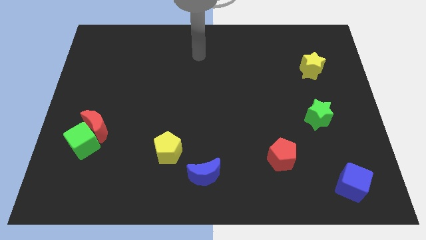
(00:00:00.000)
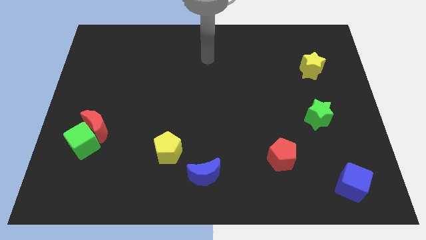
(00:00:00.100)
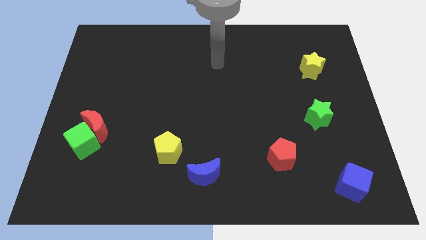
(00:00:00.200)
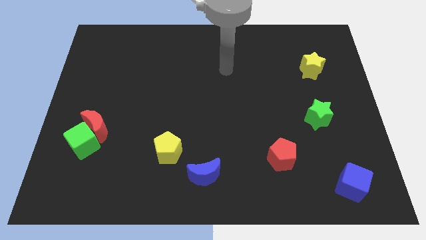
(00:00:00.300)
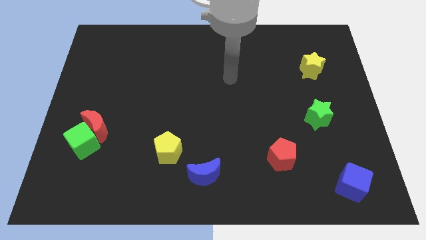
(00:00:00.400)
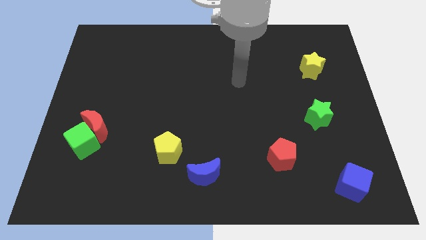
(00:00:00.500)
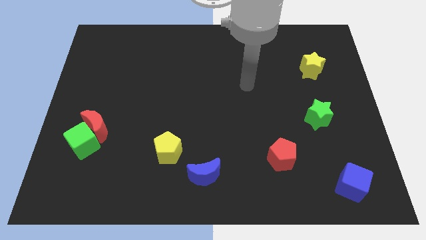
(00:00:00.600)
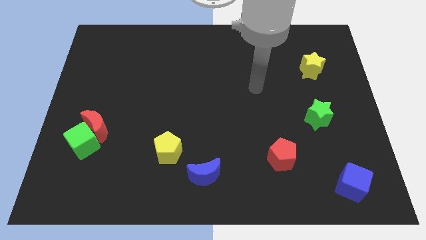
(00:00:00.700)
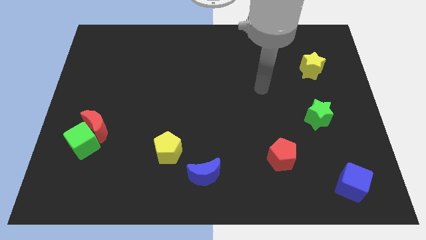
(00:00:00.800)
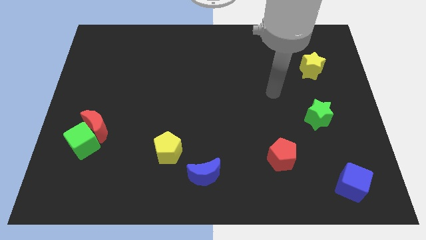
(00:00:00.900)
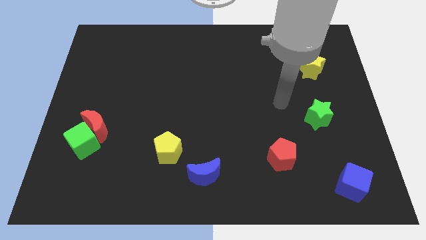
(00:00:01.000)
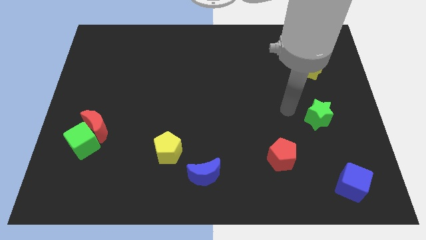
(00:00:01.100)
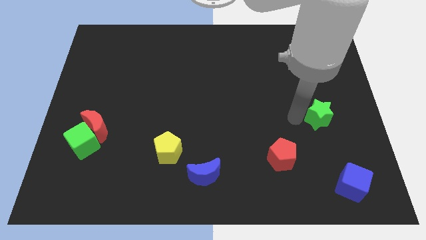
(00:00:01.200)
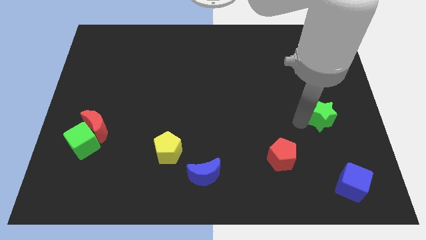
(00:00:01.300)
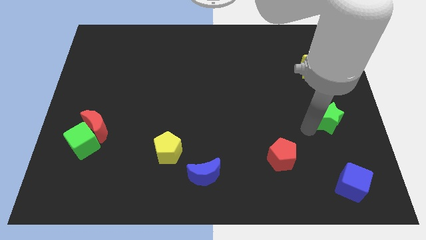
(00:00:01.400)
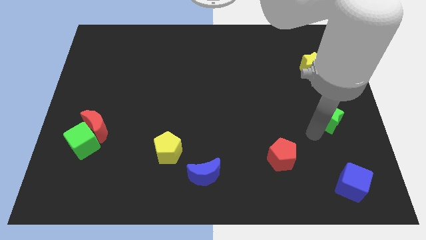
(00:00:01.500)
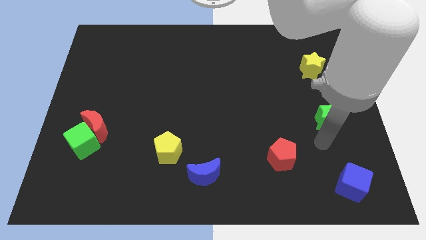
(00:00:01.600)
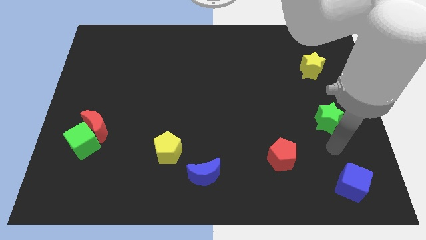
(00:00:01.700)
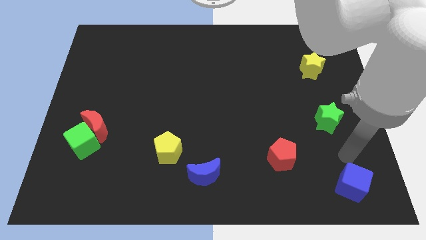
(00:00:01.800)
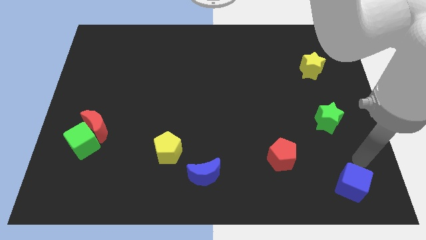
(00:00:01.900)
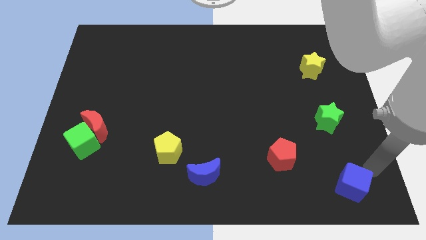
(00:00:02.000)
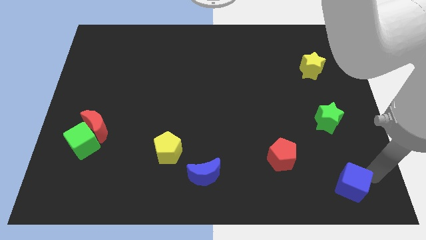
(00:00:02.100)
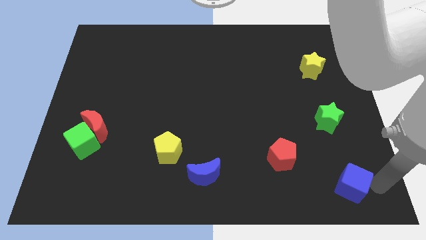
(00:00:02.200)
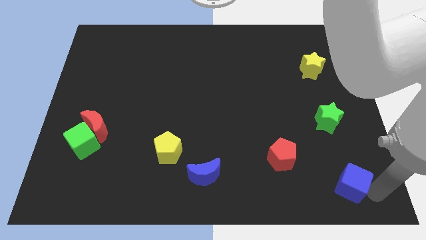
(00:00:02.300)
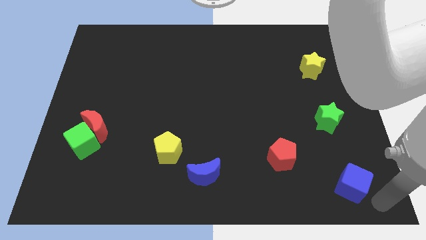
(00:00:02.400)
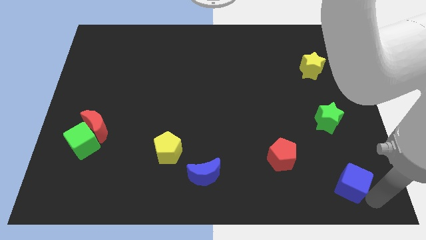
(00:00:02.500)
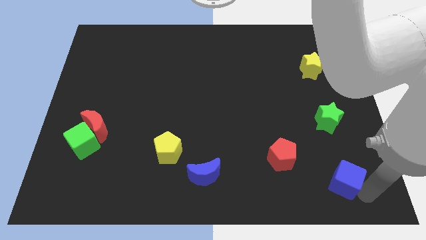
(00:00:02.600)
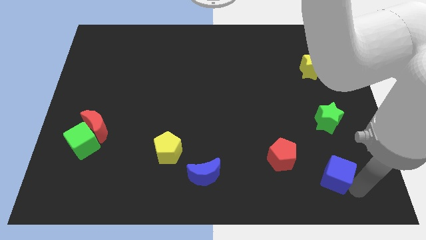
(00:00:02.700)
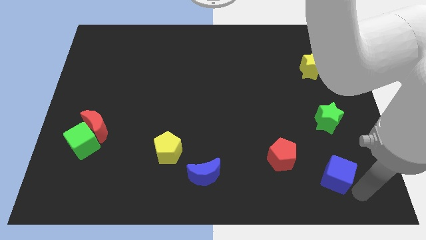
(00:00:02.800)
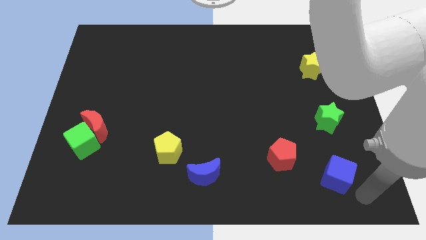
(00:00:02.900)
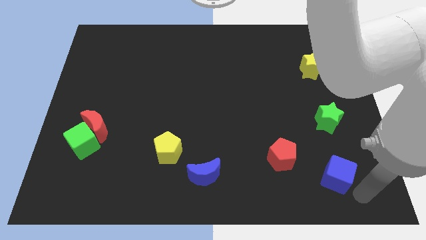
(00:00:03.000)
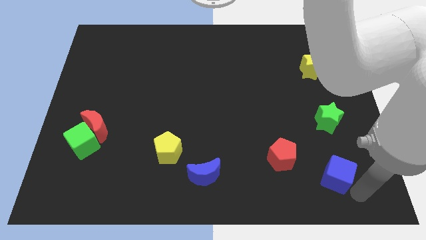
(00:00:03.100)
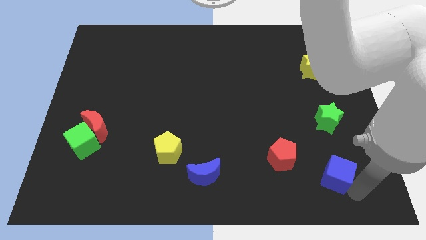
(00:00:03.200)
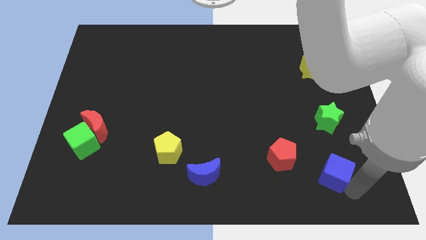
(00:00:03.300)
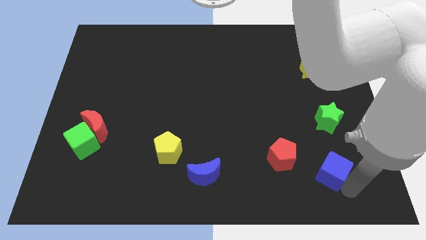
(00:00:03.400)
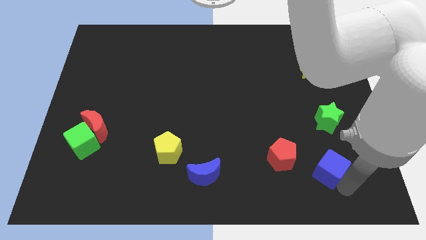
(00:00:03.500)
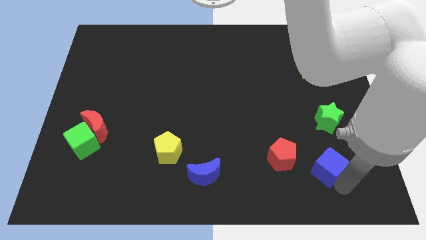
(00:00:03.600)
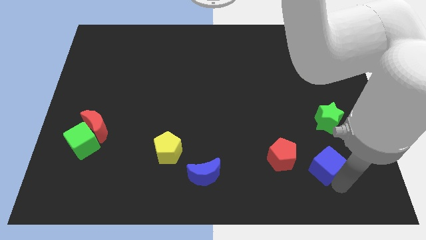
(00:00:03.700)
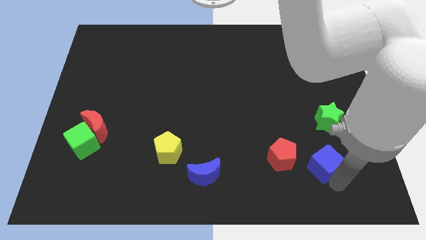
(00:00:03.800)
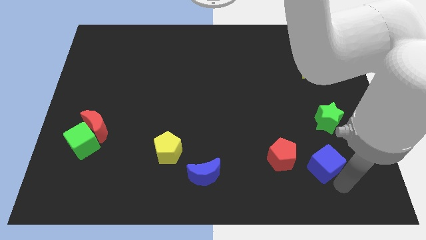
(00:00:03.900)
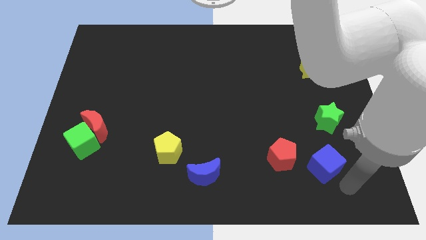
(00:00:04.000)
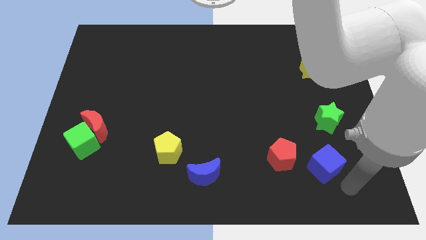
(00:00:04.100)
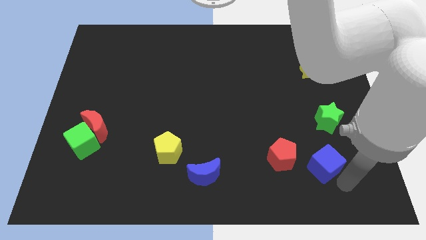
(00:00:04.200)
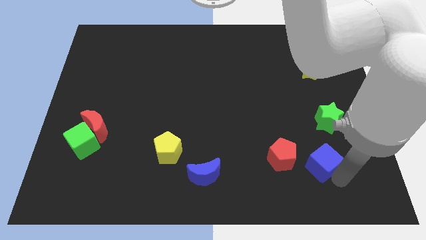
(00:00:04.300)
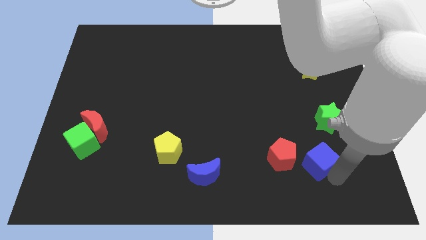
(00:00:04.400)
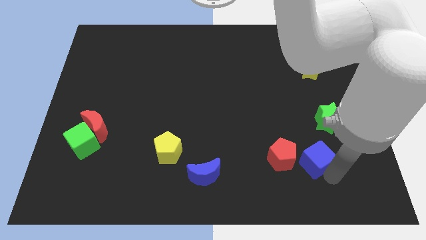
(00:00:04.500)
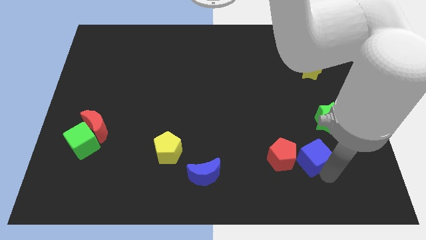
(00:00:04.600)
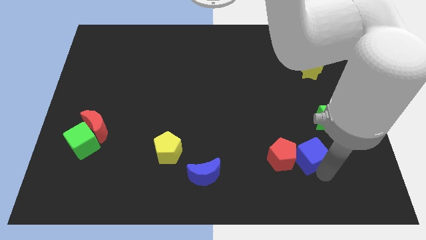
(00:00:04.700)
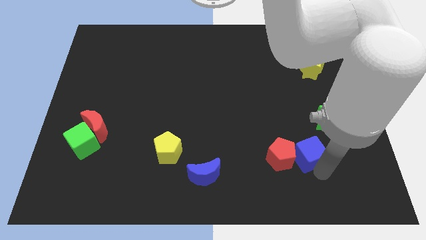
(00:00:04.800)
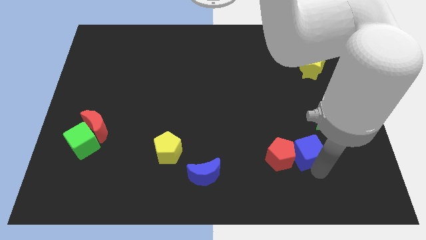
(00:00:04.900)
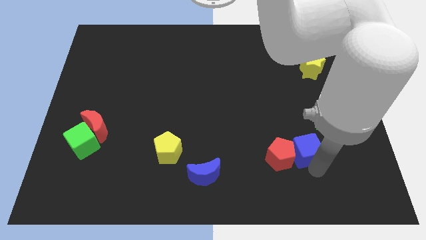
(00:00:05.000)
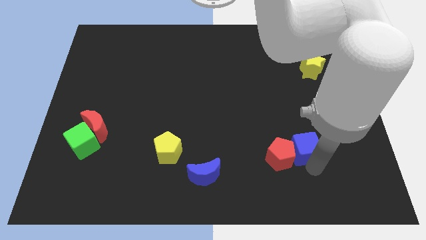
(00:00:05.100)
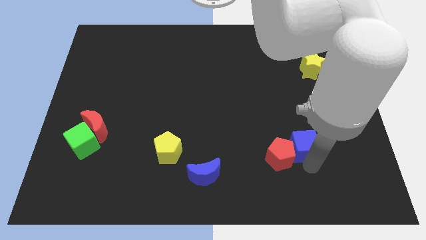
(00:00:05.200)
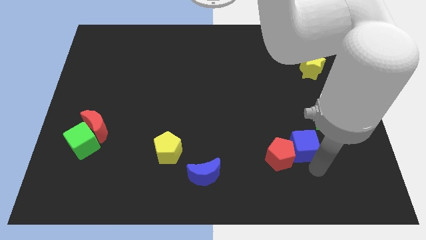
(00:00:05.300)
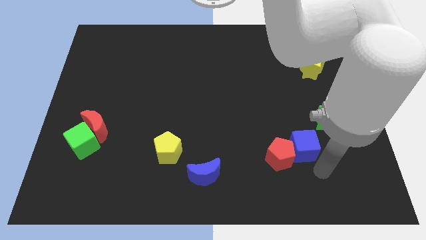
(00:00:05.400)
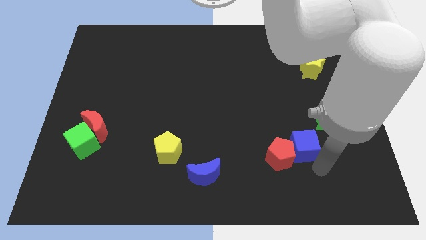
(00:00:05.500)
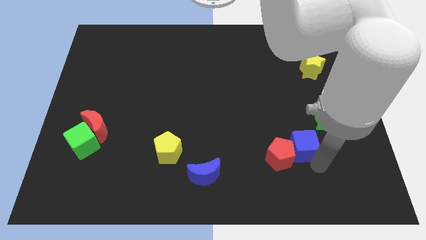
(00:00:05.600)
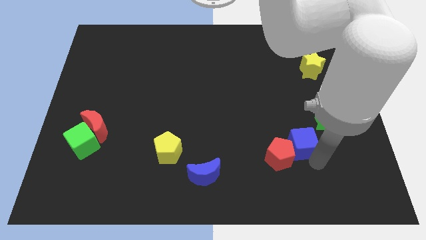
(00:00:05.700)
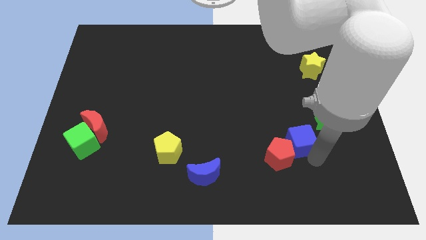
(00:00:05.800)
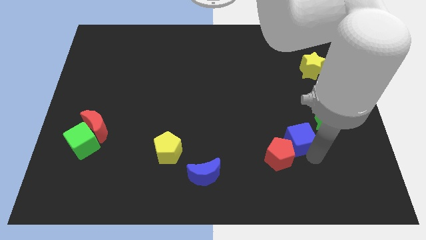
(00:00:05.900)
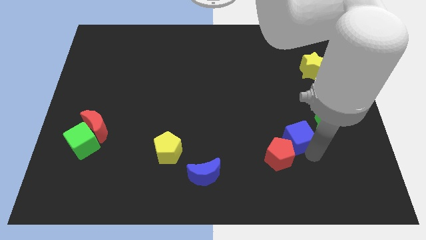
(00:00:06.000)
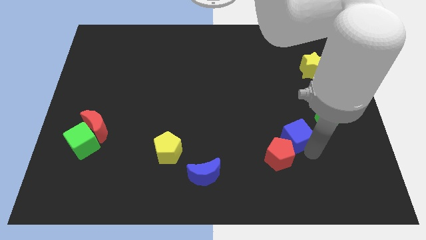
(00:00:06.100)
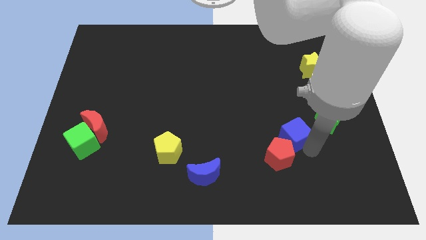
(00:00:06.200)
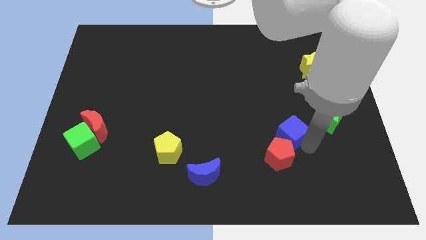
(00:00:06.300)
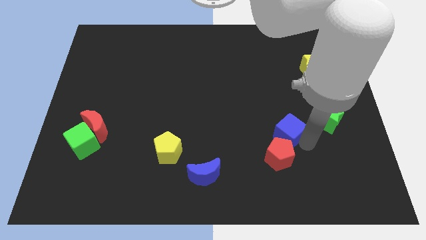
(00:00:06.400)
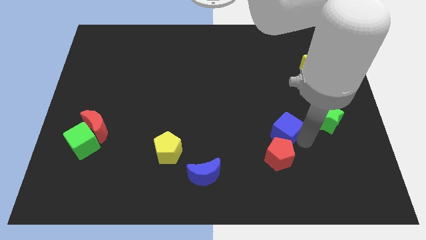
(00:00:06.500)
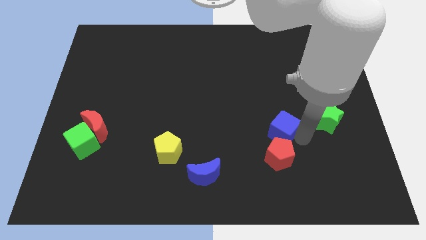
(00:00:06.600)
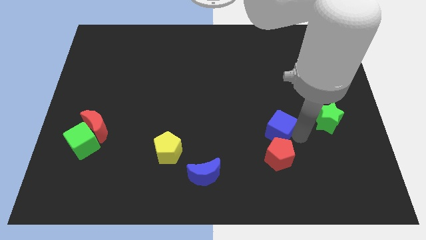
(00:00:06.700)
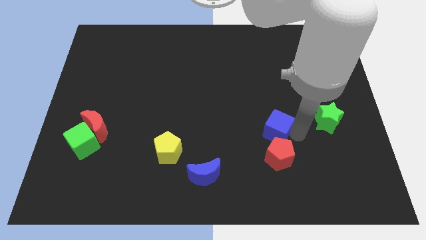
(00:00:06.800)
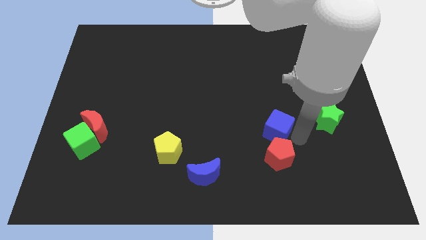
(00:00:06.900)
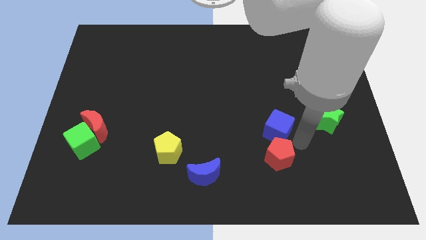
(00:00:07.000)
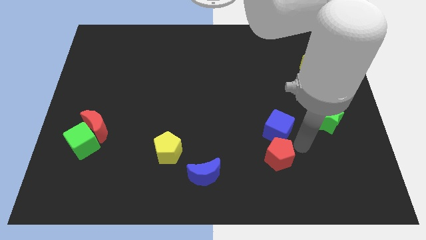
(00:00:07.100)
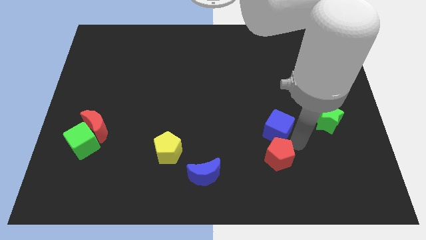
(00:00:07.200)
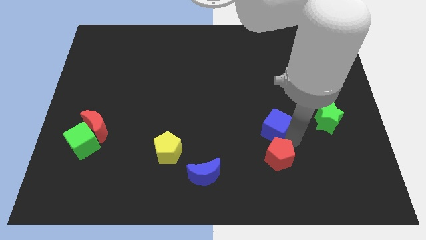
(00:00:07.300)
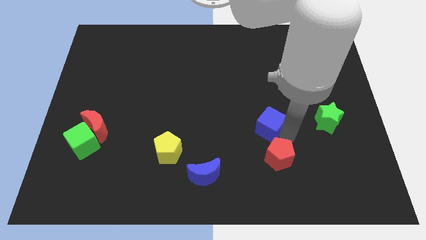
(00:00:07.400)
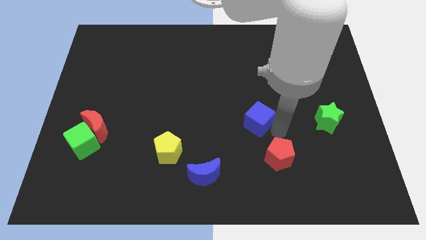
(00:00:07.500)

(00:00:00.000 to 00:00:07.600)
slide the blue cube to the center of the board
